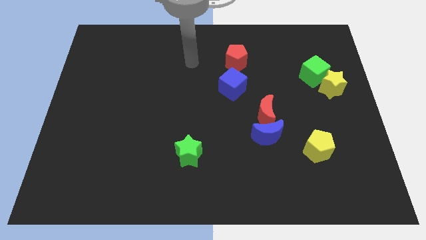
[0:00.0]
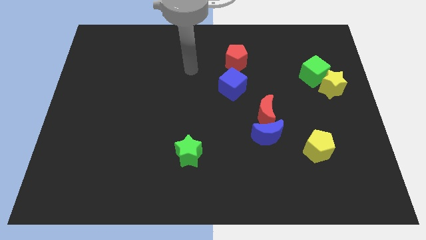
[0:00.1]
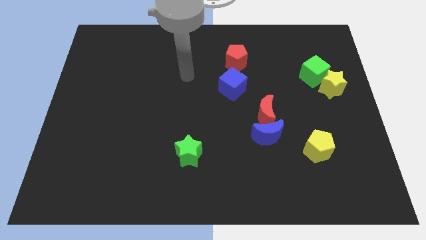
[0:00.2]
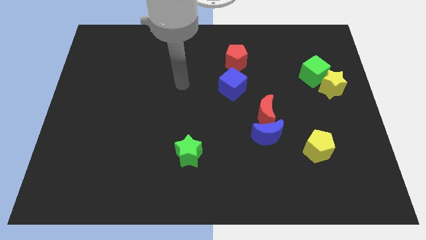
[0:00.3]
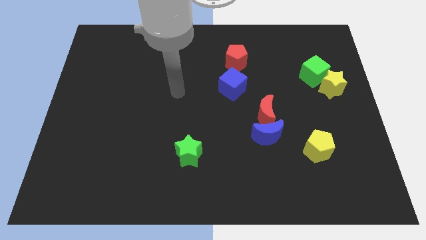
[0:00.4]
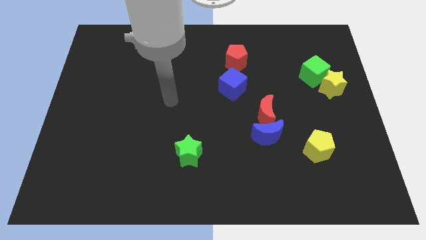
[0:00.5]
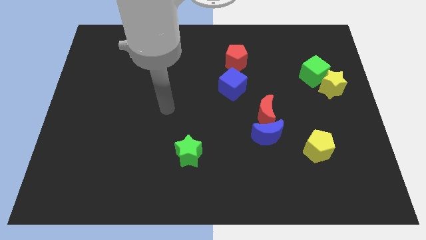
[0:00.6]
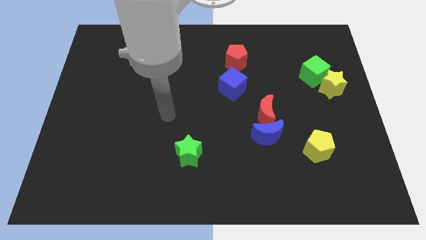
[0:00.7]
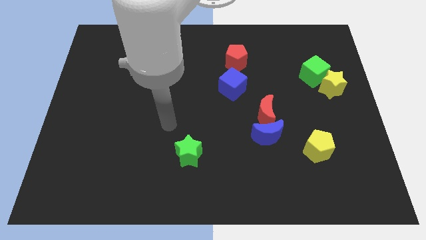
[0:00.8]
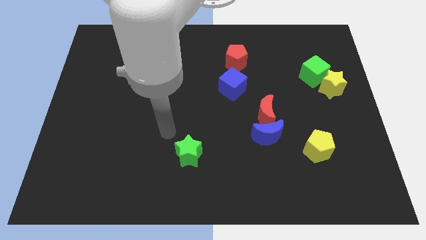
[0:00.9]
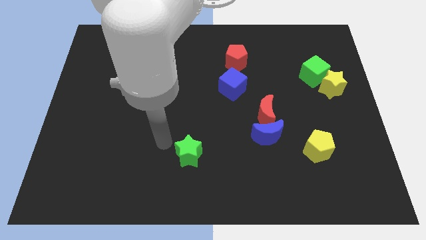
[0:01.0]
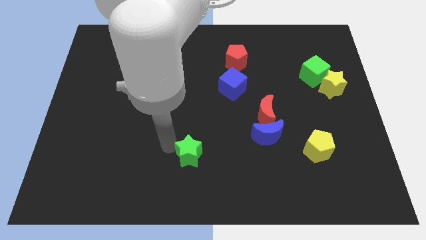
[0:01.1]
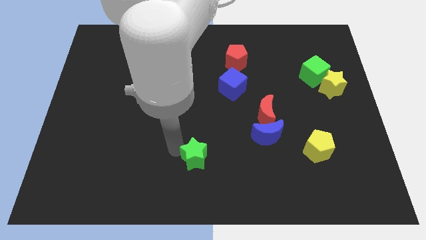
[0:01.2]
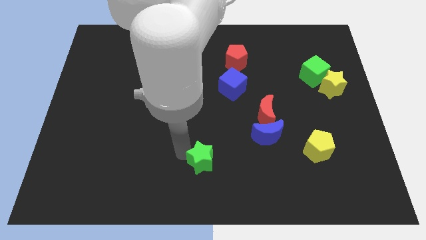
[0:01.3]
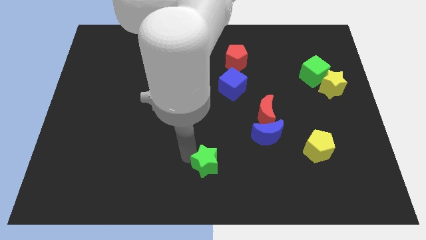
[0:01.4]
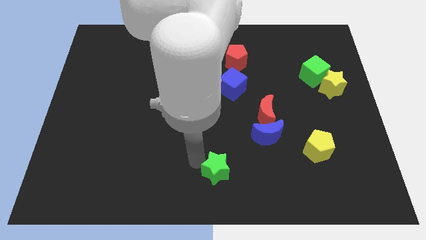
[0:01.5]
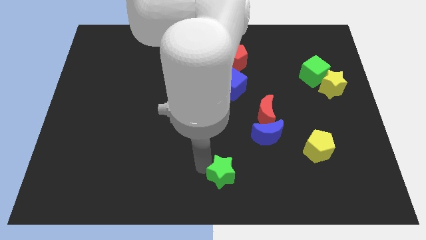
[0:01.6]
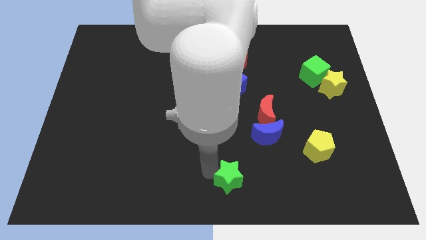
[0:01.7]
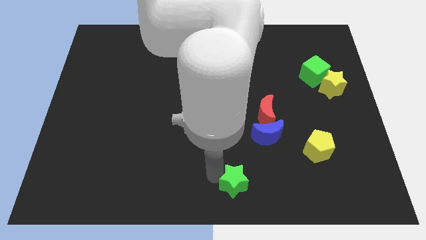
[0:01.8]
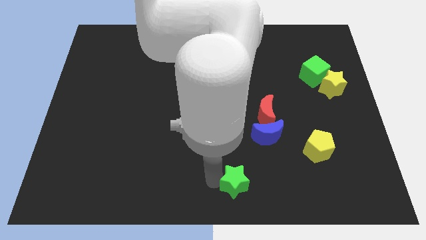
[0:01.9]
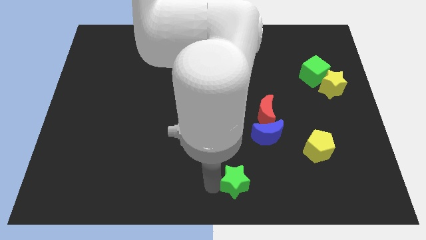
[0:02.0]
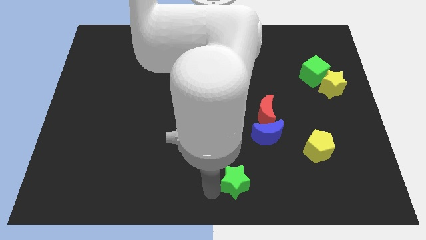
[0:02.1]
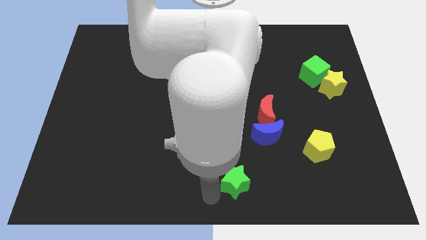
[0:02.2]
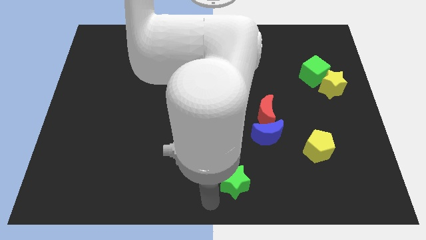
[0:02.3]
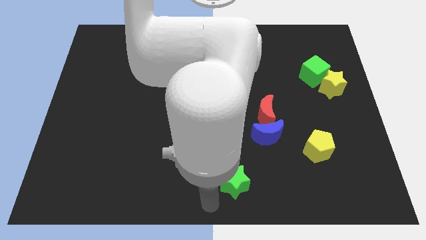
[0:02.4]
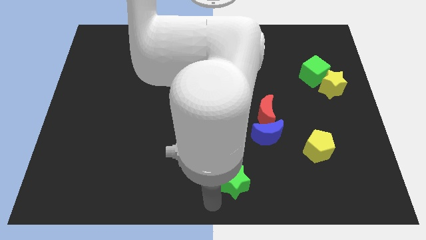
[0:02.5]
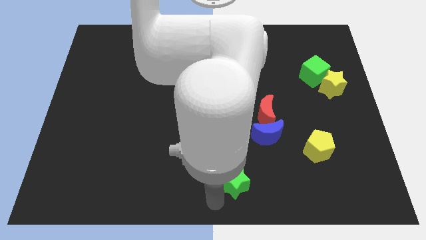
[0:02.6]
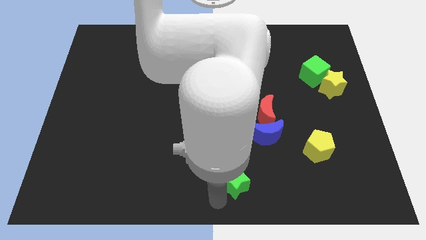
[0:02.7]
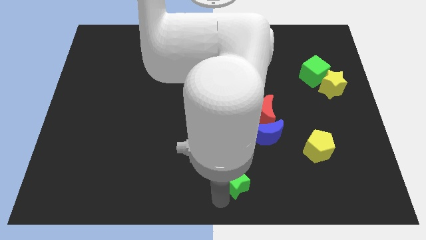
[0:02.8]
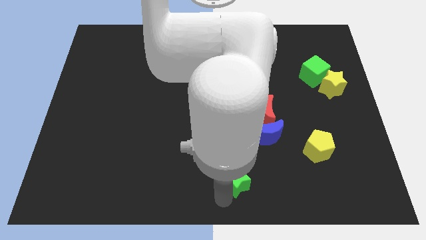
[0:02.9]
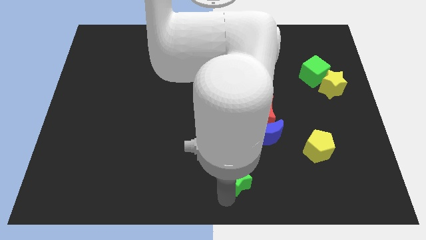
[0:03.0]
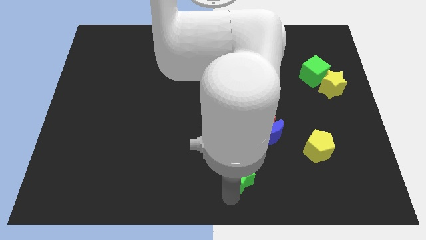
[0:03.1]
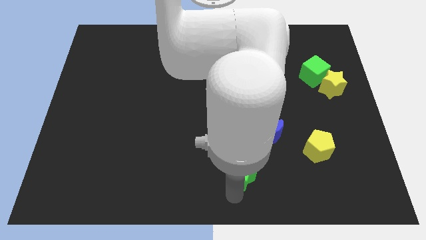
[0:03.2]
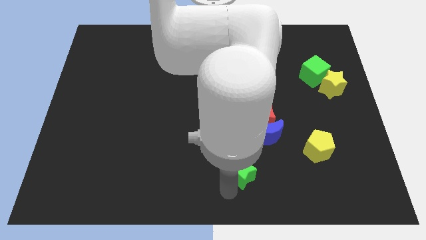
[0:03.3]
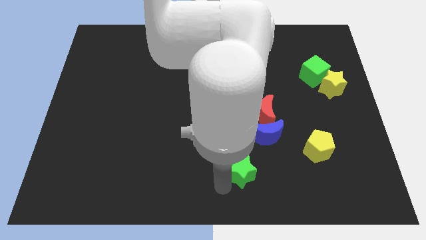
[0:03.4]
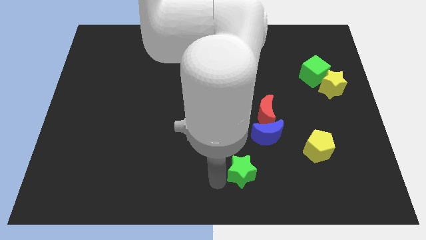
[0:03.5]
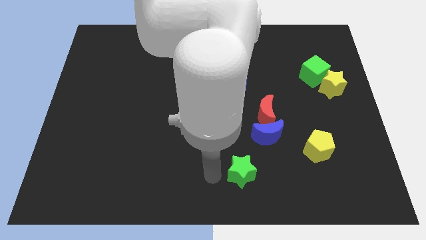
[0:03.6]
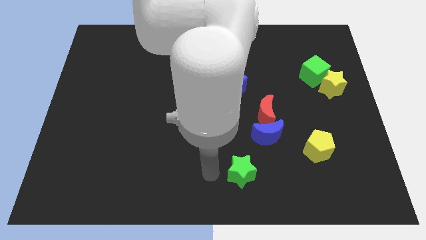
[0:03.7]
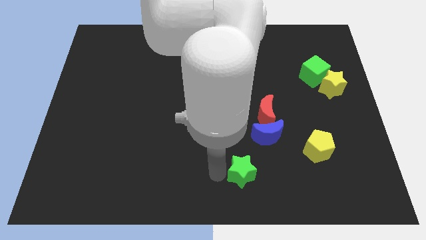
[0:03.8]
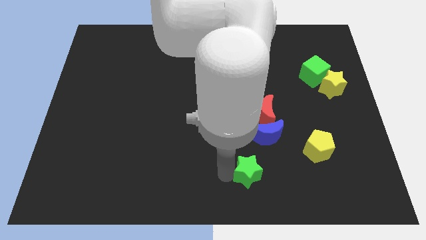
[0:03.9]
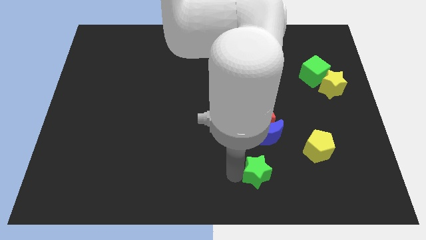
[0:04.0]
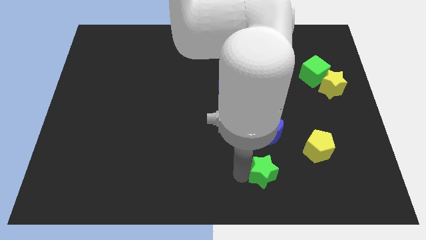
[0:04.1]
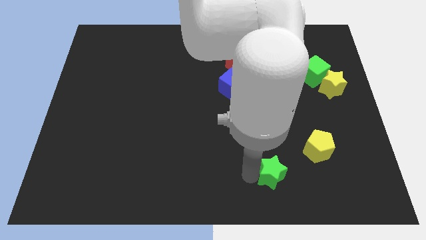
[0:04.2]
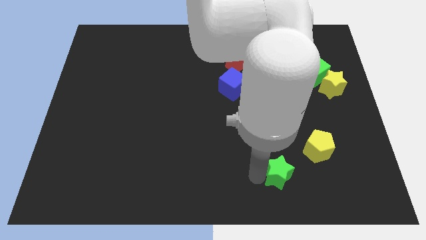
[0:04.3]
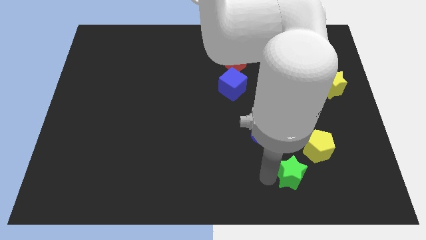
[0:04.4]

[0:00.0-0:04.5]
push the green star right

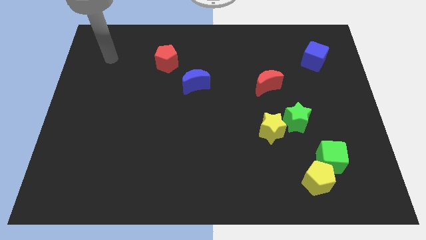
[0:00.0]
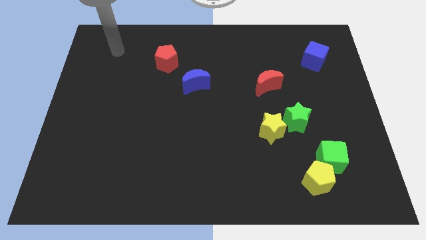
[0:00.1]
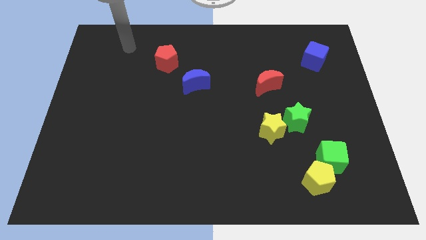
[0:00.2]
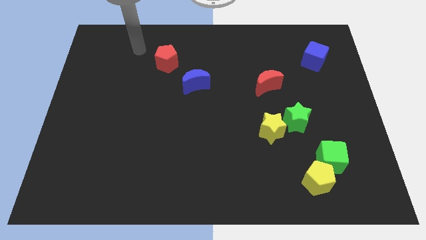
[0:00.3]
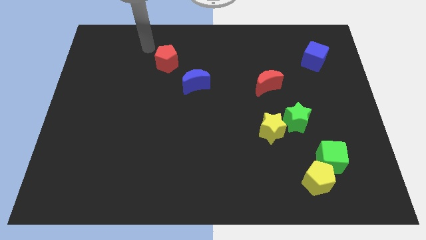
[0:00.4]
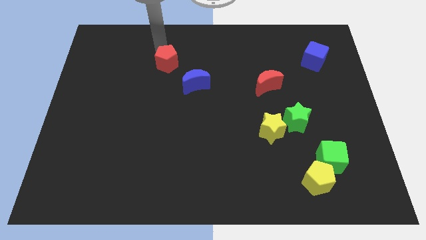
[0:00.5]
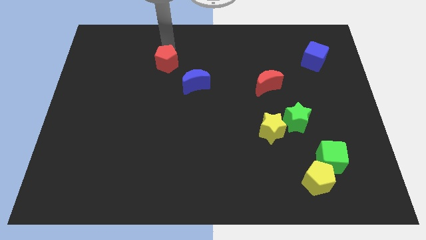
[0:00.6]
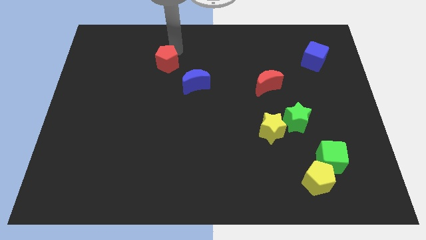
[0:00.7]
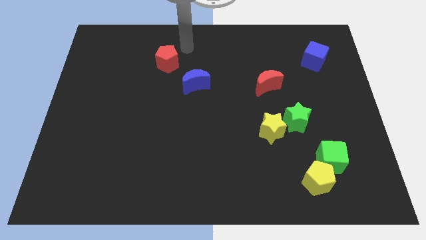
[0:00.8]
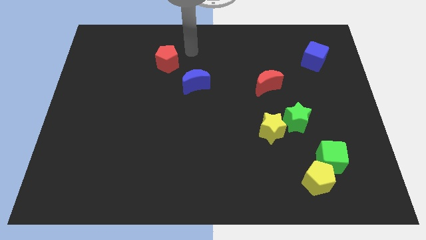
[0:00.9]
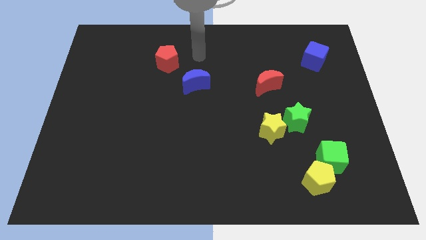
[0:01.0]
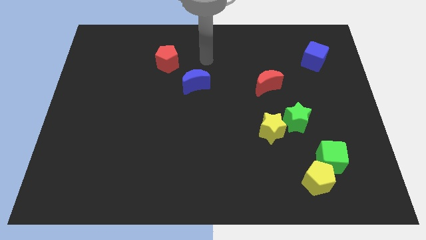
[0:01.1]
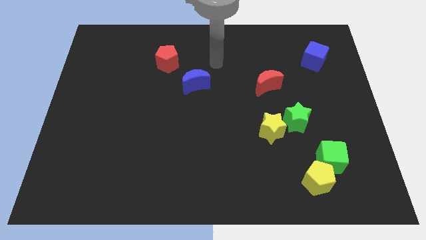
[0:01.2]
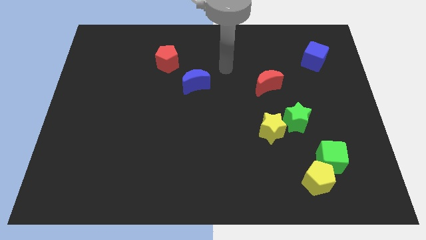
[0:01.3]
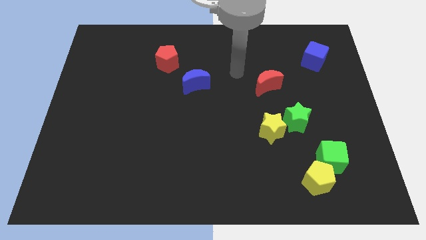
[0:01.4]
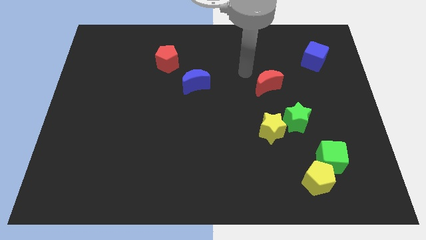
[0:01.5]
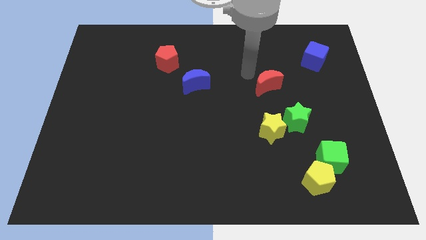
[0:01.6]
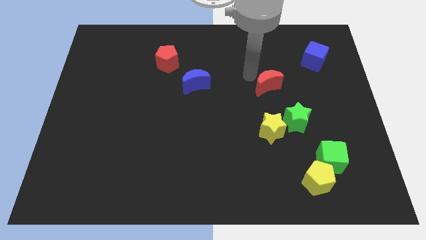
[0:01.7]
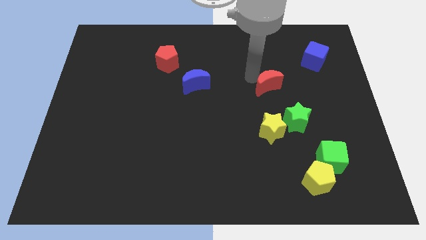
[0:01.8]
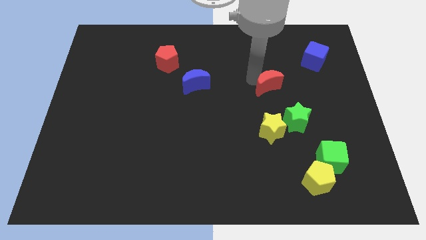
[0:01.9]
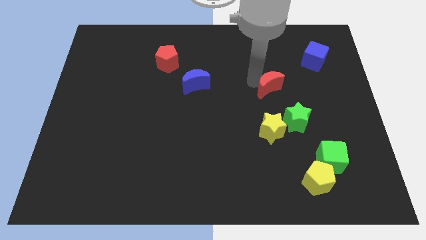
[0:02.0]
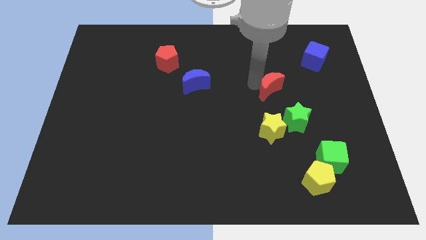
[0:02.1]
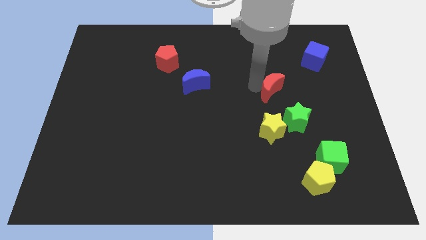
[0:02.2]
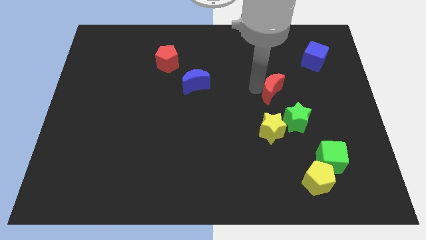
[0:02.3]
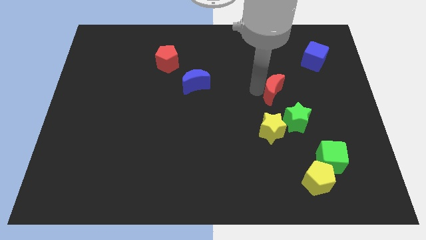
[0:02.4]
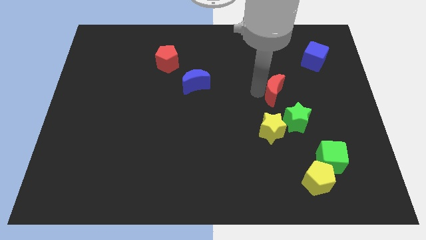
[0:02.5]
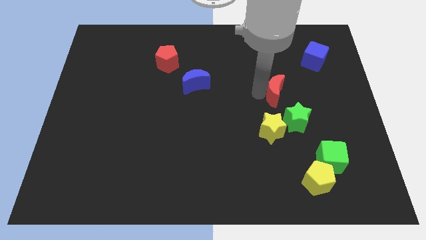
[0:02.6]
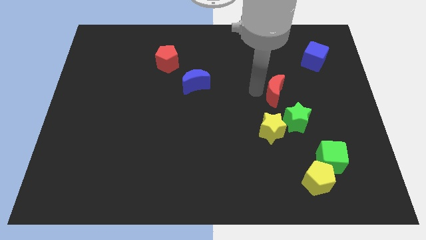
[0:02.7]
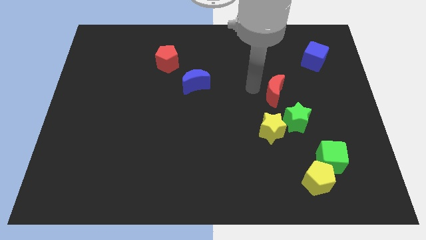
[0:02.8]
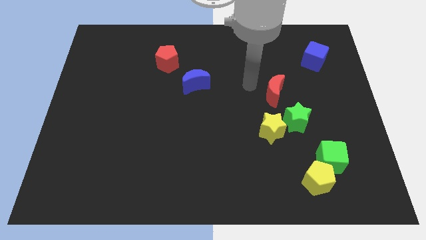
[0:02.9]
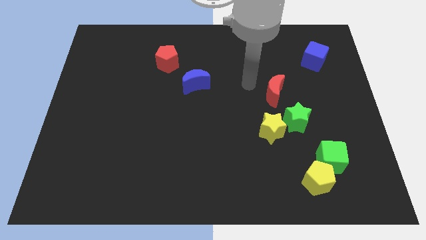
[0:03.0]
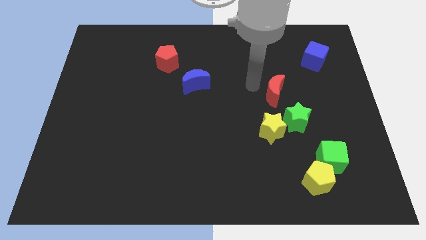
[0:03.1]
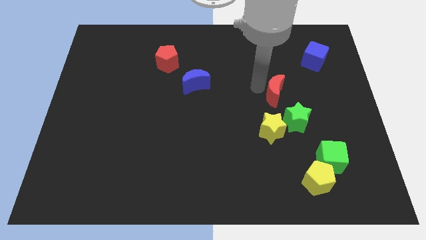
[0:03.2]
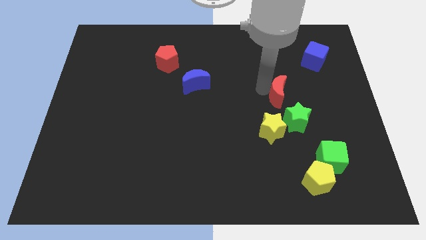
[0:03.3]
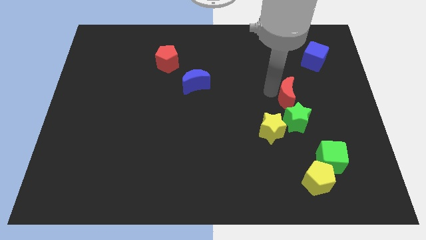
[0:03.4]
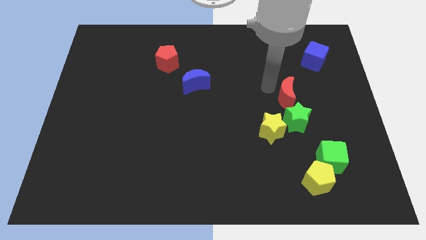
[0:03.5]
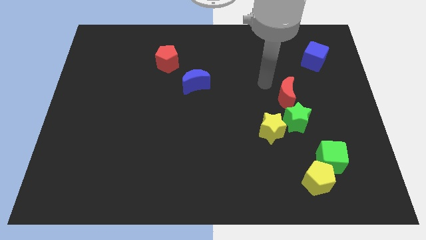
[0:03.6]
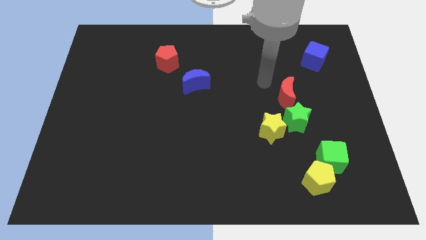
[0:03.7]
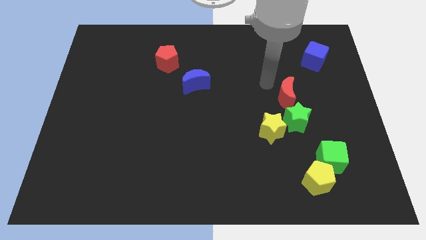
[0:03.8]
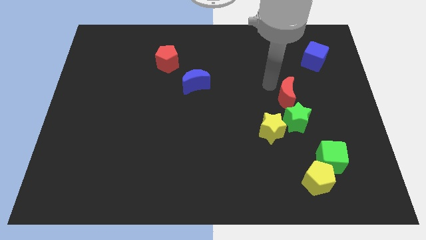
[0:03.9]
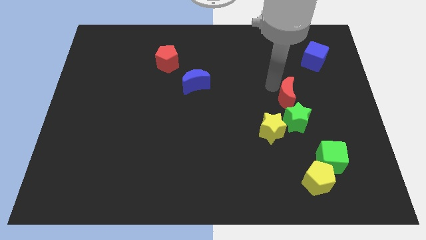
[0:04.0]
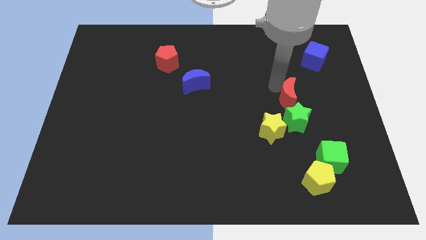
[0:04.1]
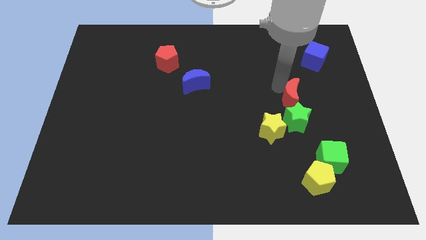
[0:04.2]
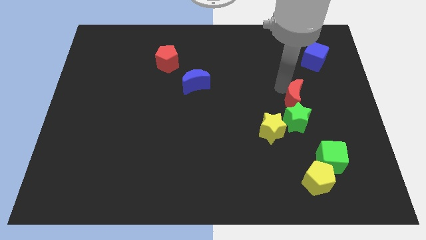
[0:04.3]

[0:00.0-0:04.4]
push the red moon down and right a little bit
